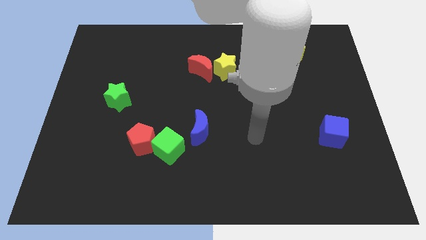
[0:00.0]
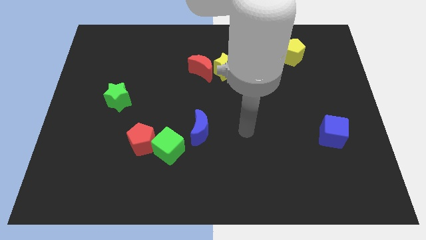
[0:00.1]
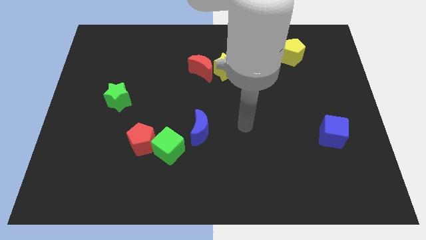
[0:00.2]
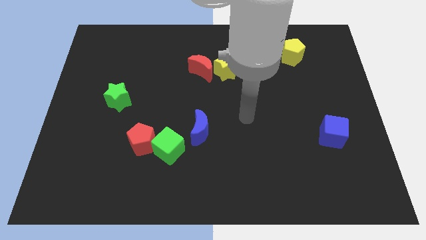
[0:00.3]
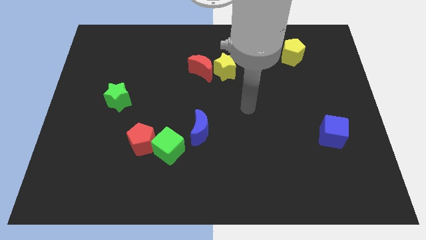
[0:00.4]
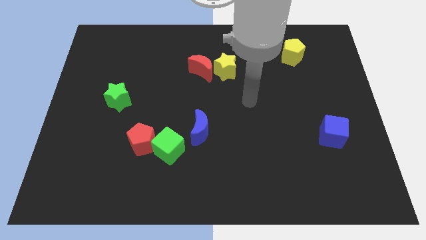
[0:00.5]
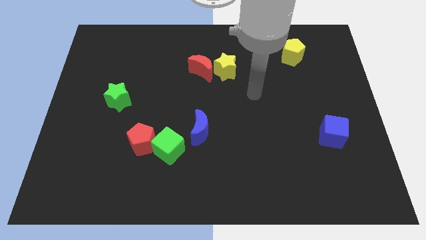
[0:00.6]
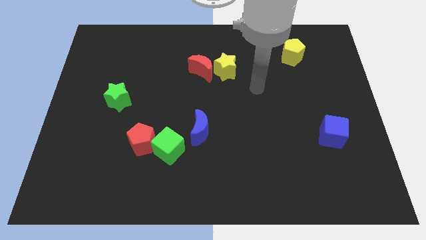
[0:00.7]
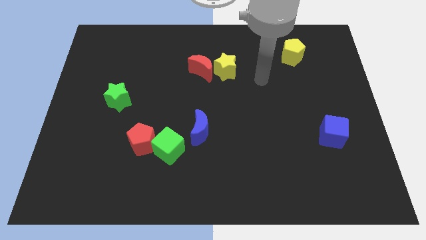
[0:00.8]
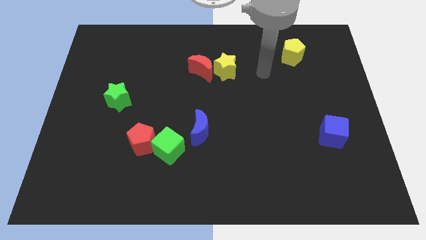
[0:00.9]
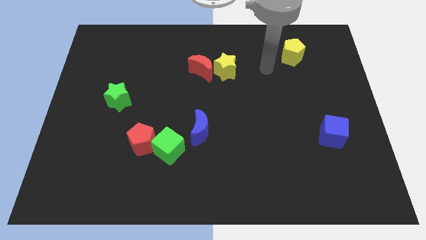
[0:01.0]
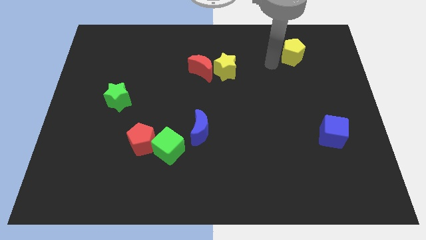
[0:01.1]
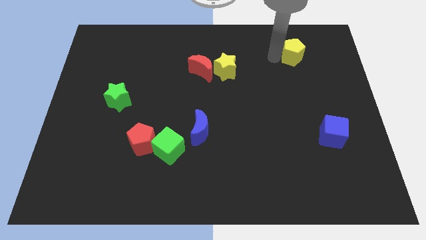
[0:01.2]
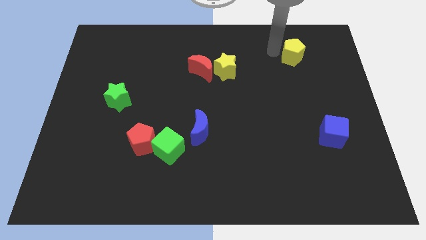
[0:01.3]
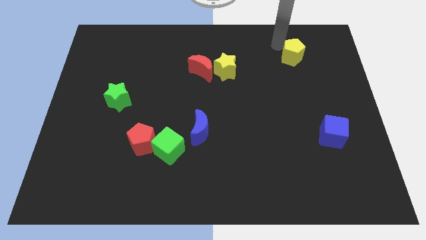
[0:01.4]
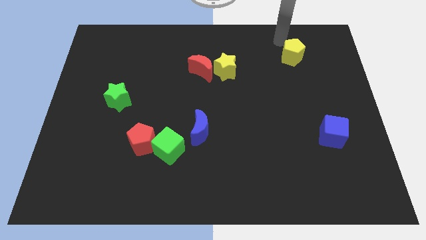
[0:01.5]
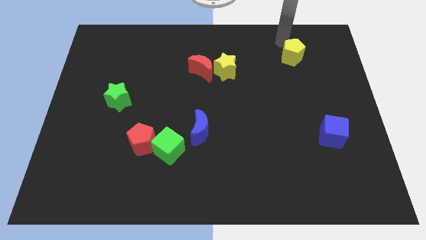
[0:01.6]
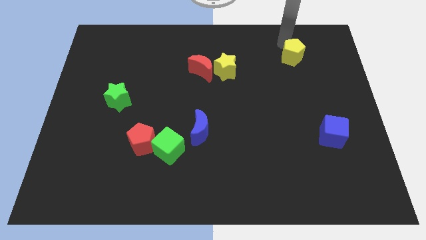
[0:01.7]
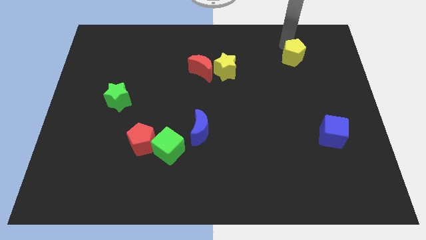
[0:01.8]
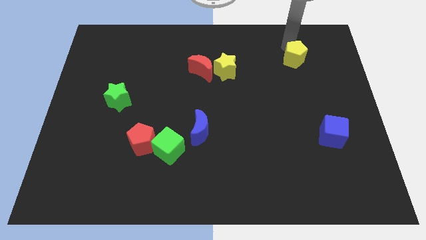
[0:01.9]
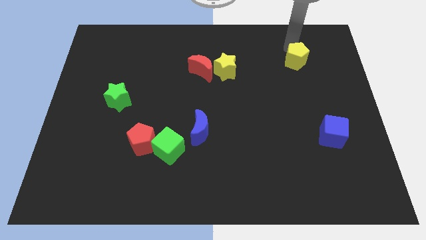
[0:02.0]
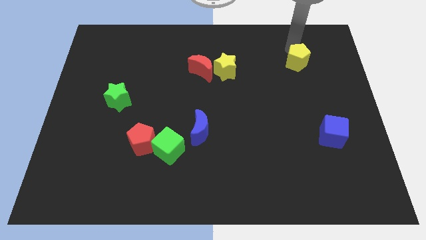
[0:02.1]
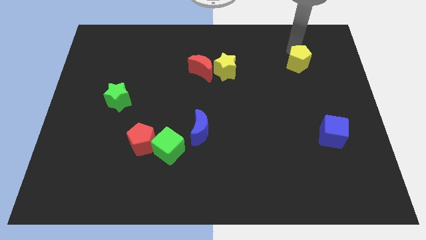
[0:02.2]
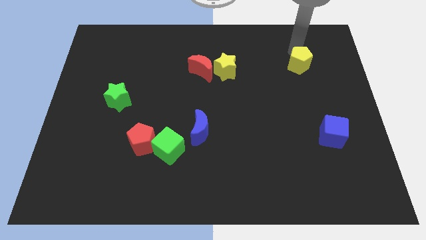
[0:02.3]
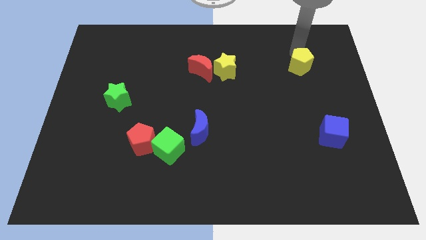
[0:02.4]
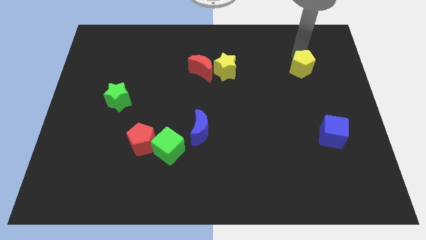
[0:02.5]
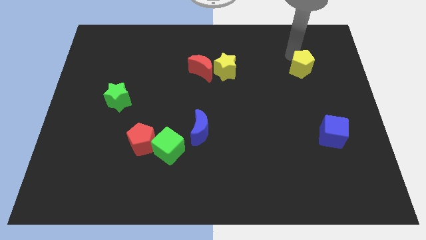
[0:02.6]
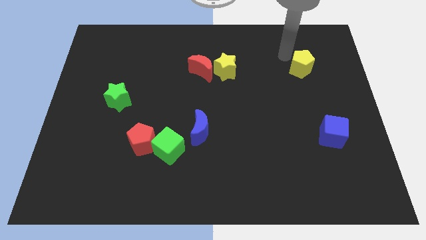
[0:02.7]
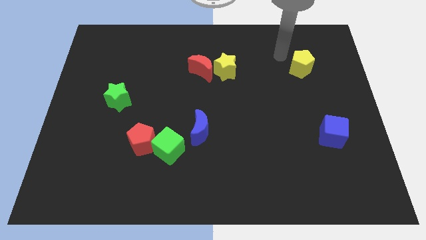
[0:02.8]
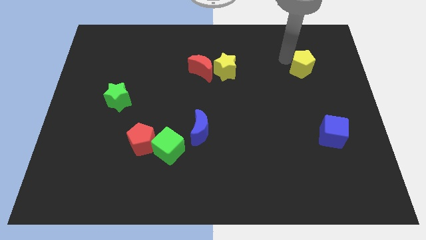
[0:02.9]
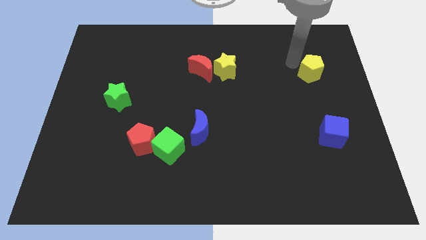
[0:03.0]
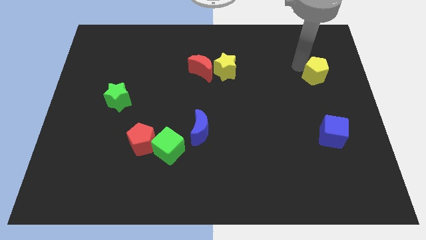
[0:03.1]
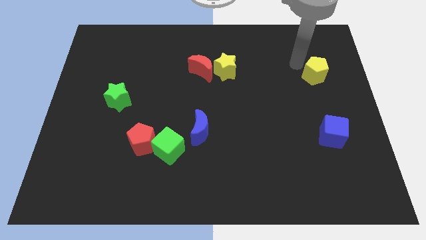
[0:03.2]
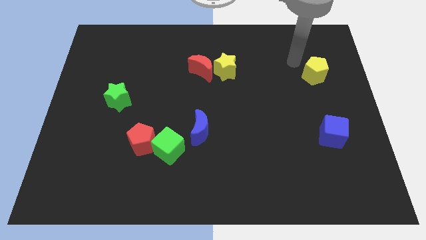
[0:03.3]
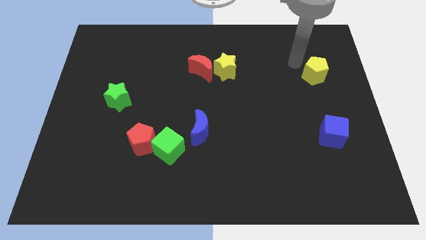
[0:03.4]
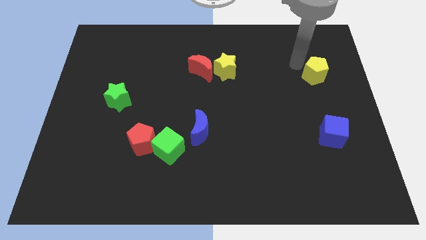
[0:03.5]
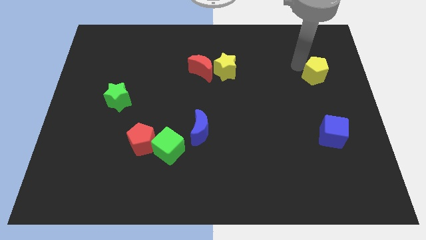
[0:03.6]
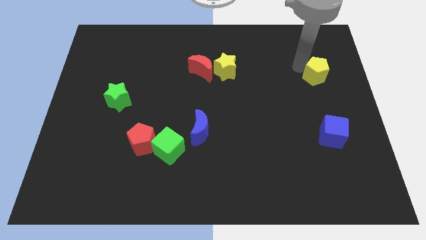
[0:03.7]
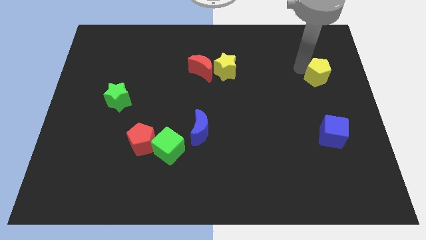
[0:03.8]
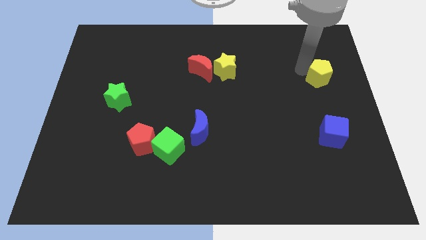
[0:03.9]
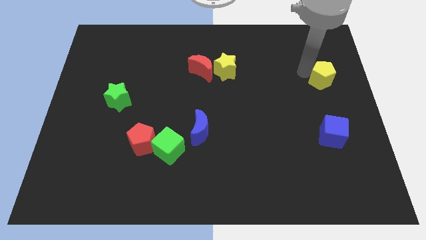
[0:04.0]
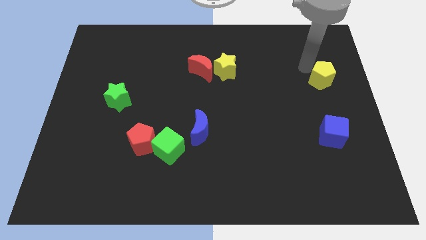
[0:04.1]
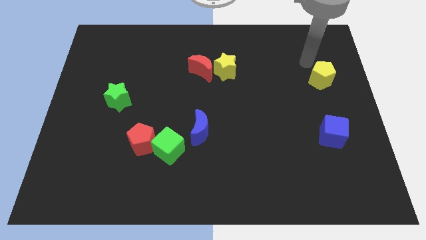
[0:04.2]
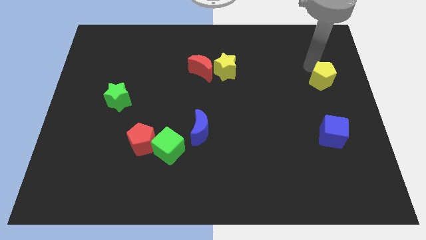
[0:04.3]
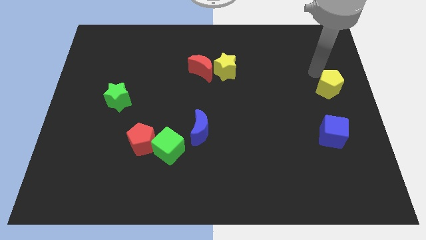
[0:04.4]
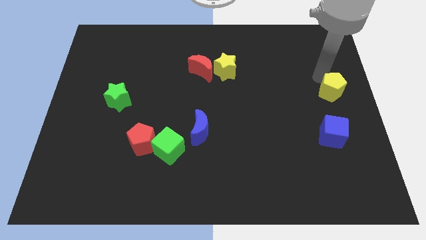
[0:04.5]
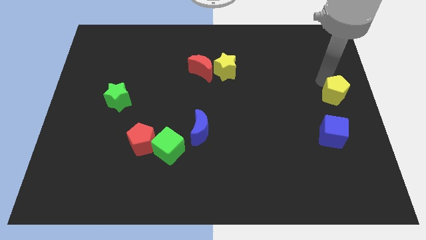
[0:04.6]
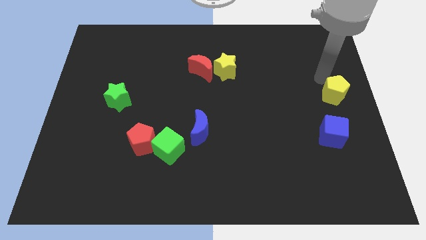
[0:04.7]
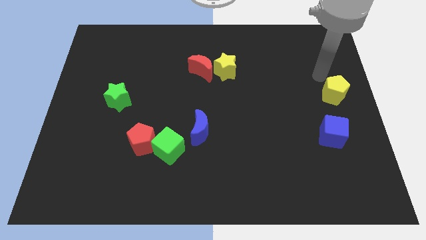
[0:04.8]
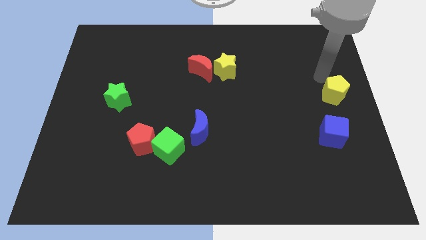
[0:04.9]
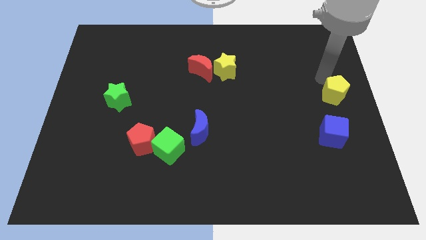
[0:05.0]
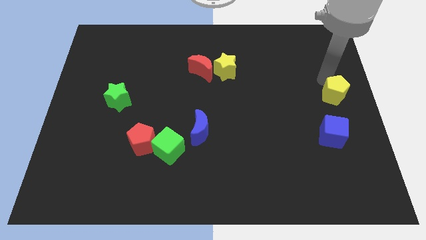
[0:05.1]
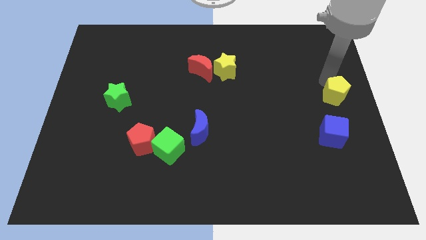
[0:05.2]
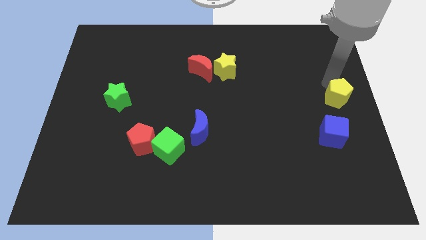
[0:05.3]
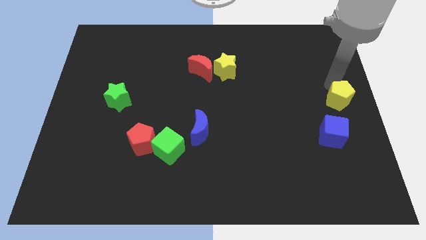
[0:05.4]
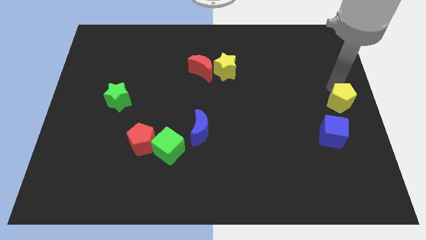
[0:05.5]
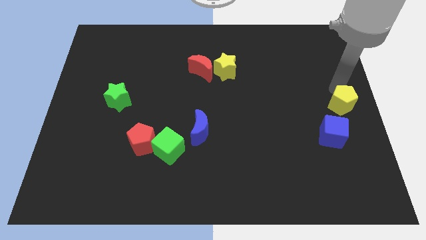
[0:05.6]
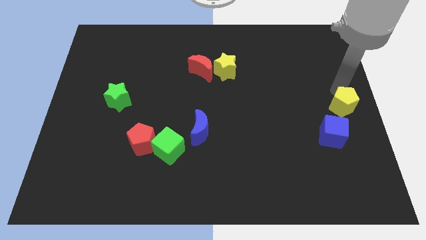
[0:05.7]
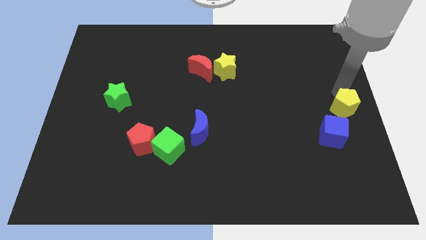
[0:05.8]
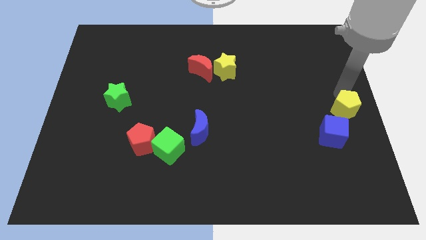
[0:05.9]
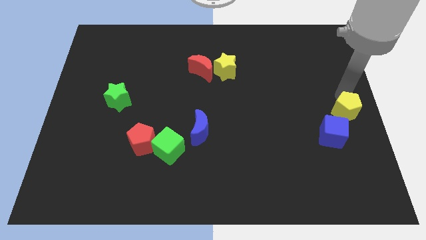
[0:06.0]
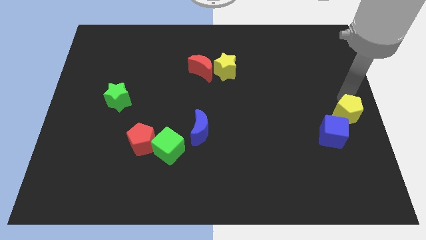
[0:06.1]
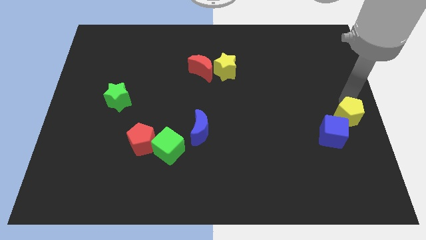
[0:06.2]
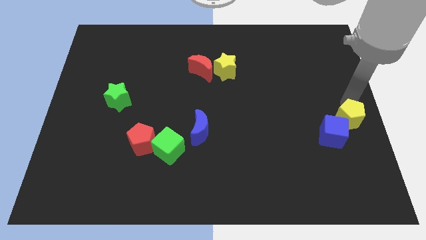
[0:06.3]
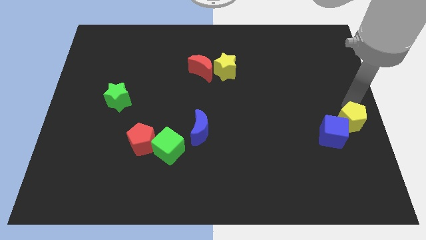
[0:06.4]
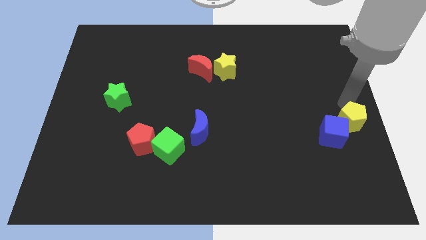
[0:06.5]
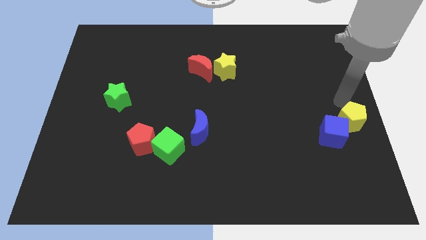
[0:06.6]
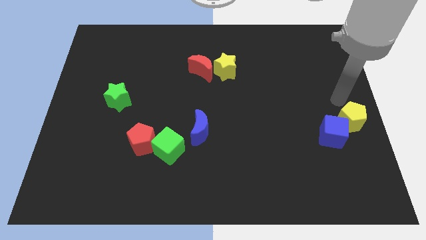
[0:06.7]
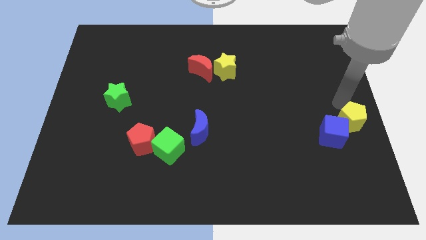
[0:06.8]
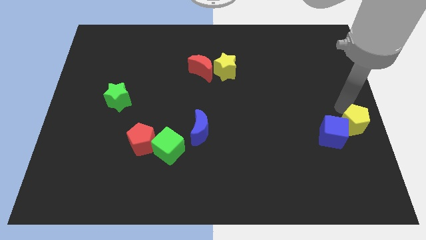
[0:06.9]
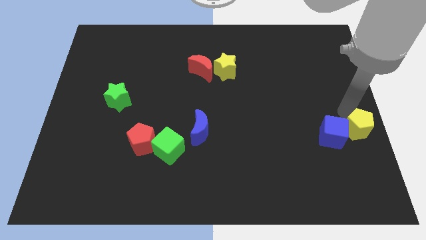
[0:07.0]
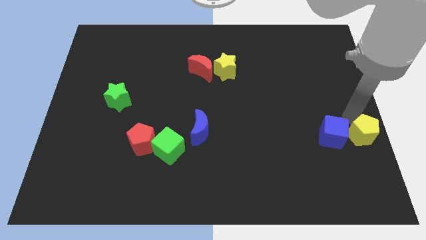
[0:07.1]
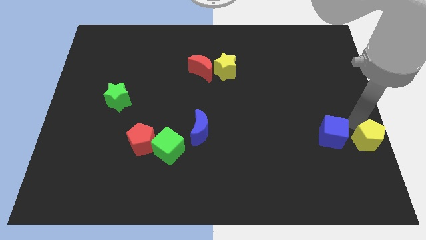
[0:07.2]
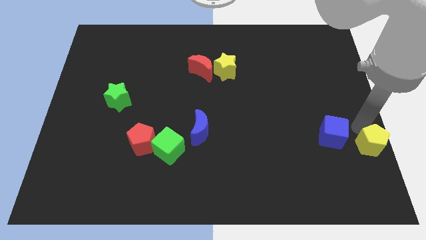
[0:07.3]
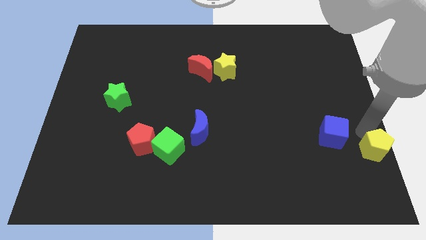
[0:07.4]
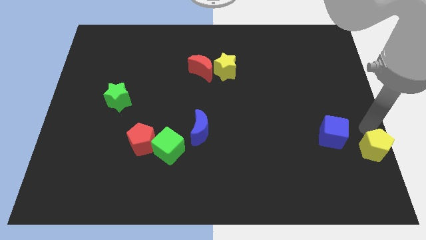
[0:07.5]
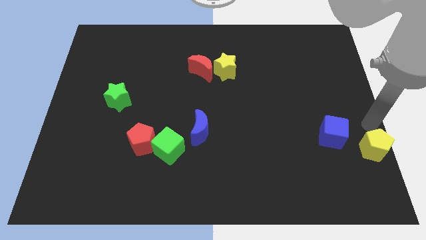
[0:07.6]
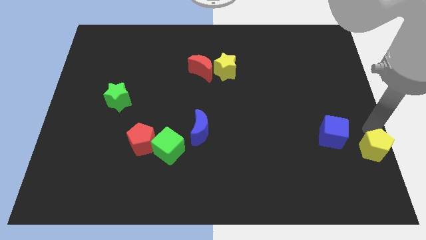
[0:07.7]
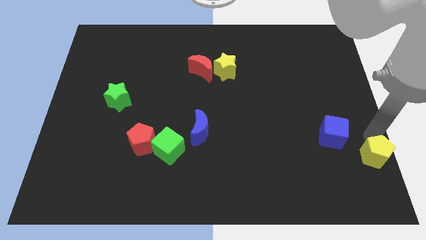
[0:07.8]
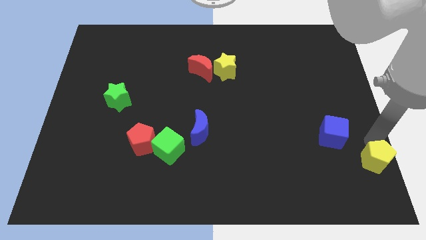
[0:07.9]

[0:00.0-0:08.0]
move the yellow pentagon to the bottom right corner
